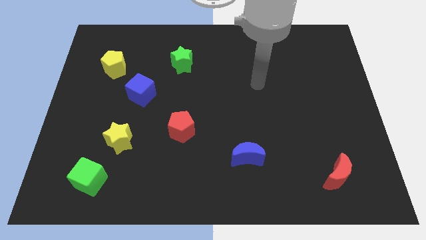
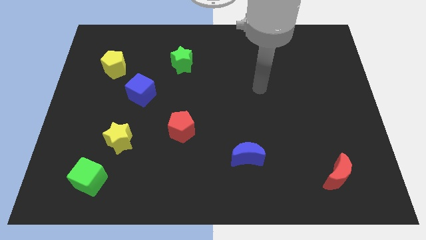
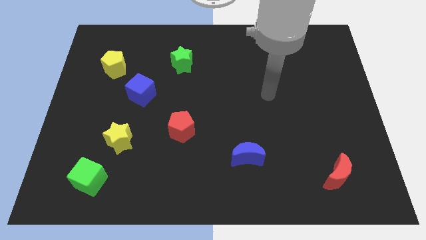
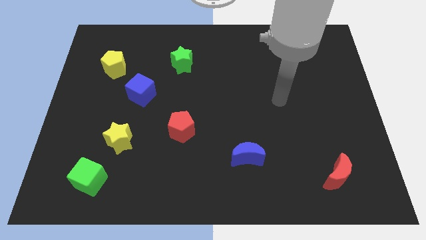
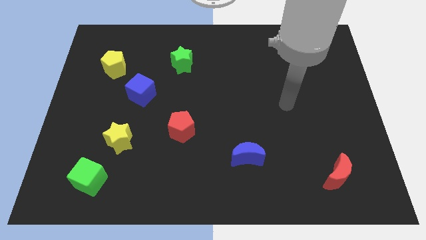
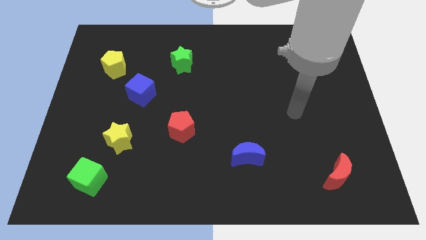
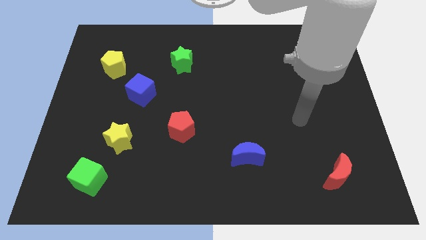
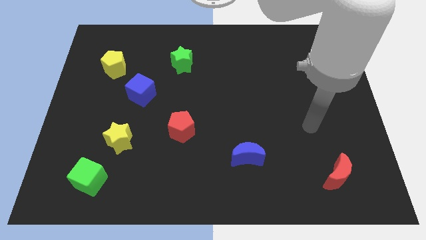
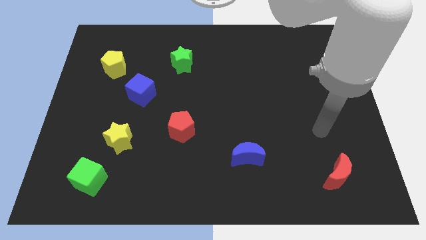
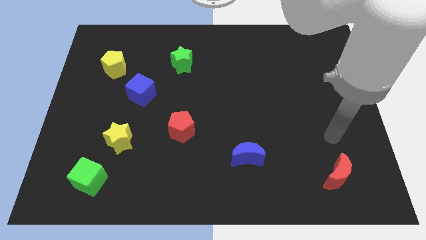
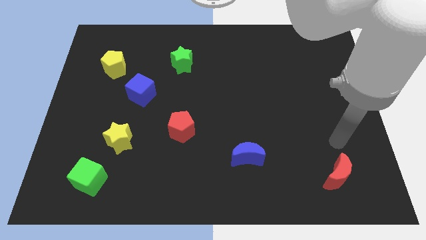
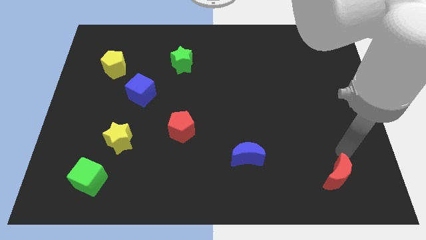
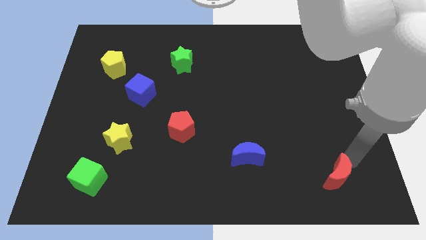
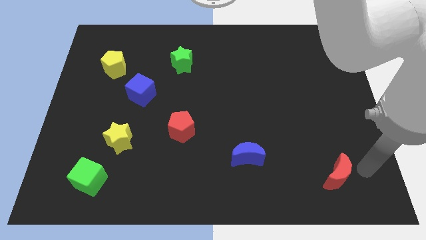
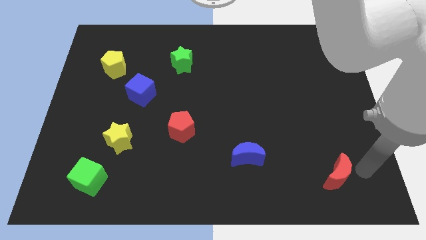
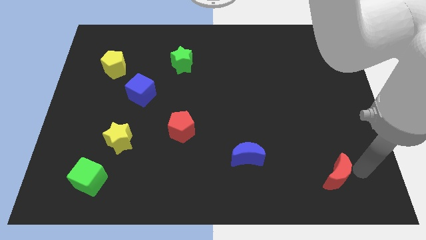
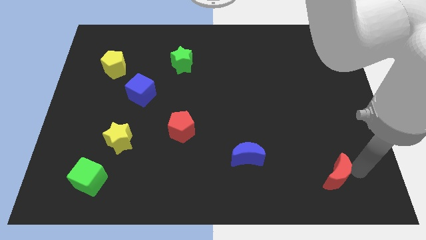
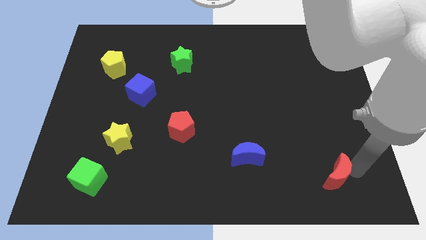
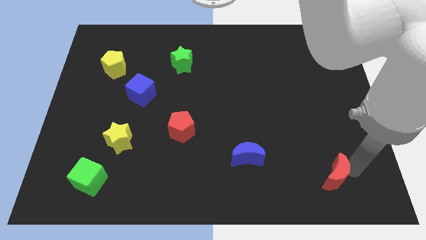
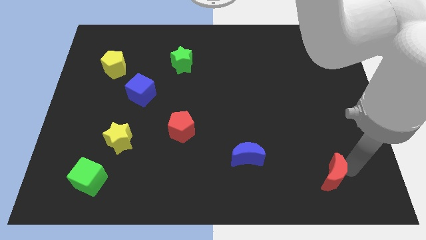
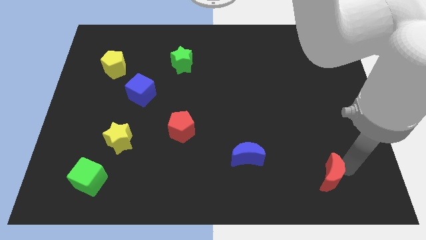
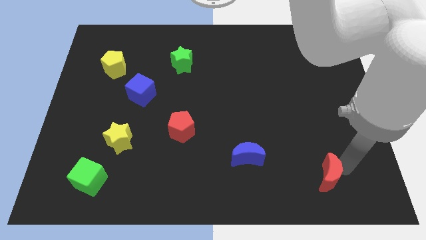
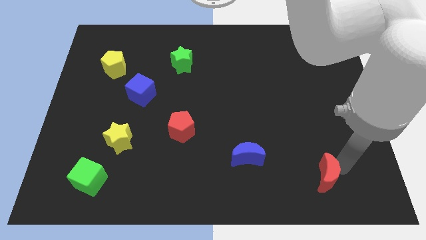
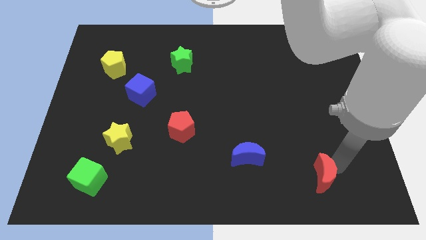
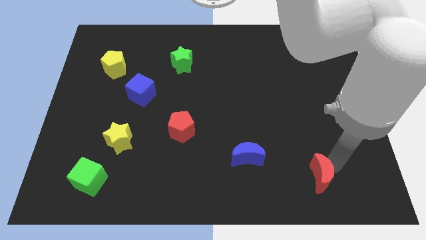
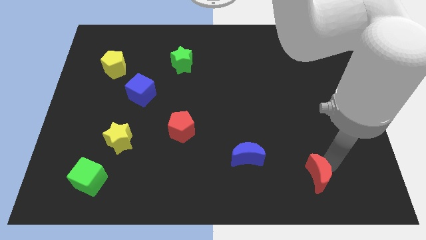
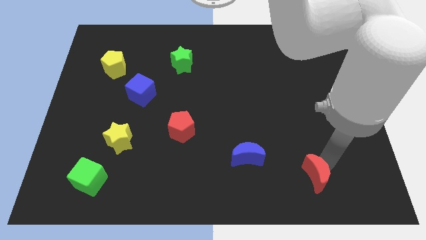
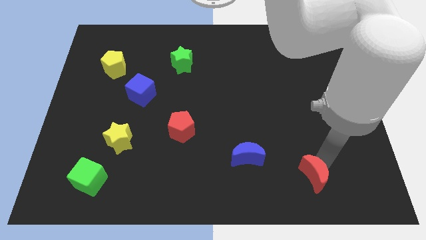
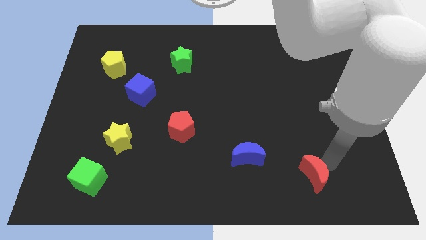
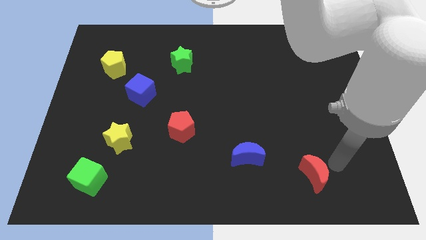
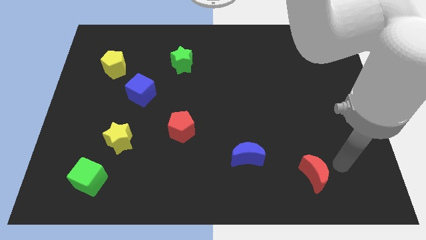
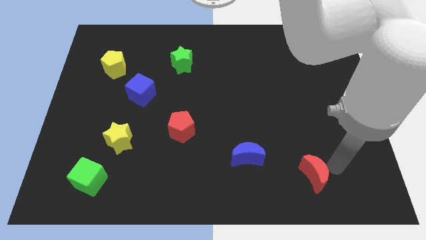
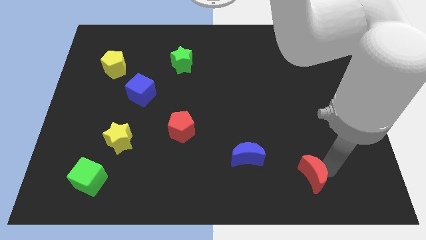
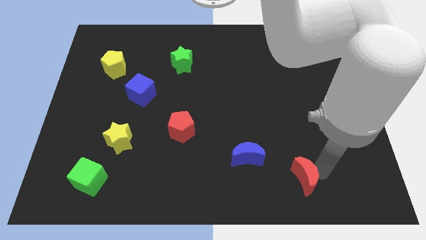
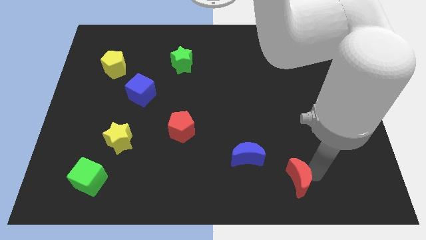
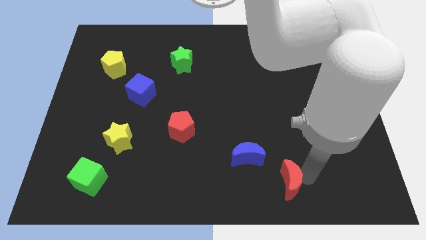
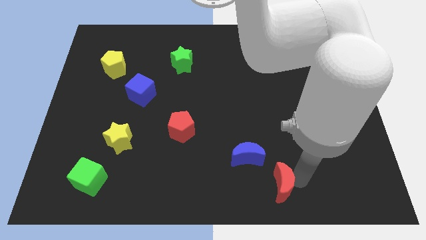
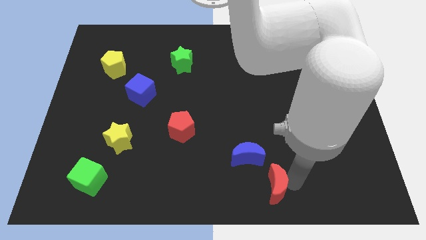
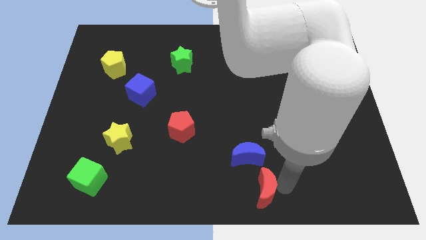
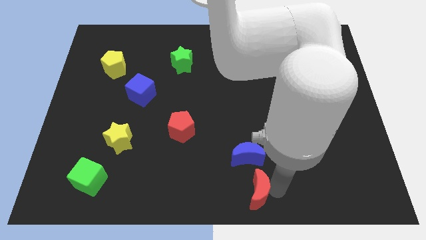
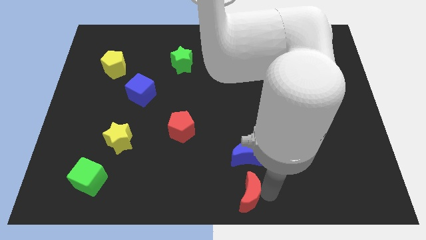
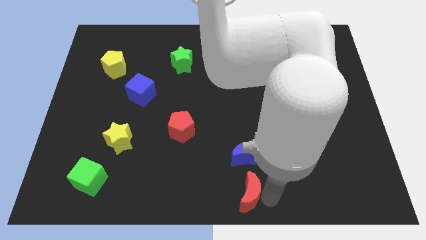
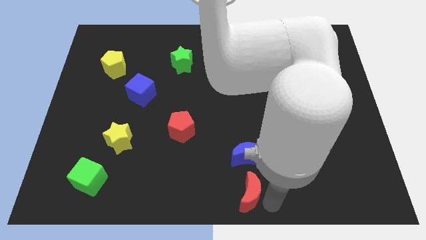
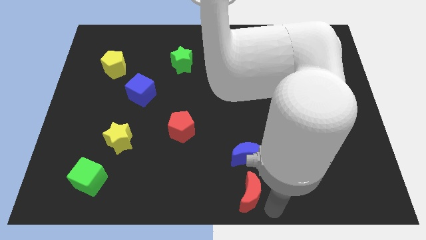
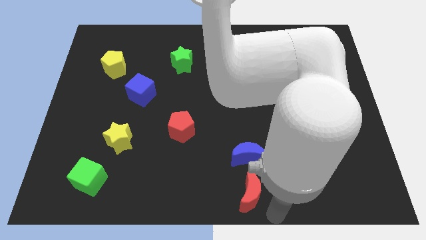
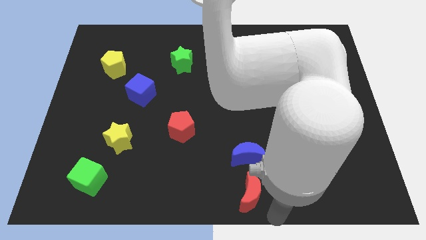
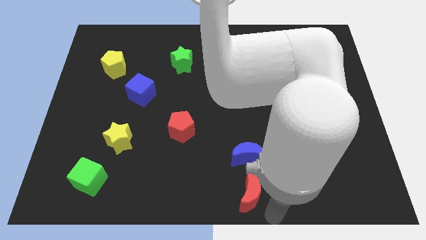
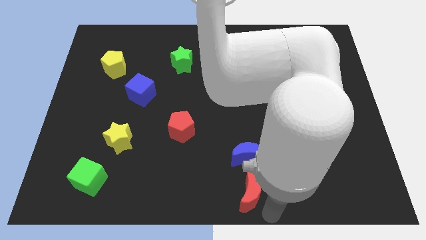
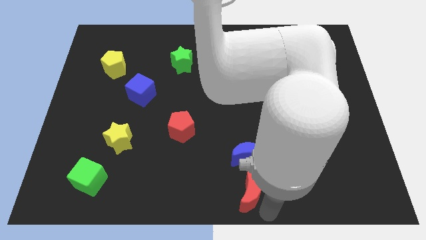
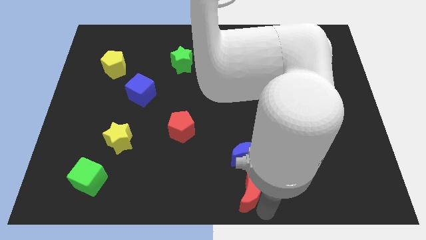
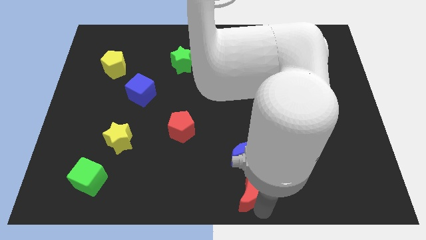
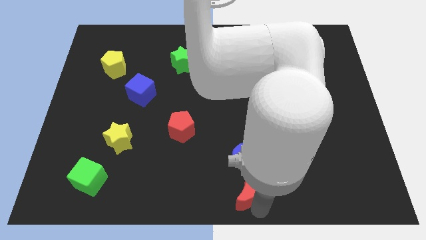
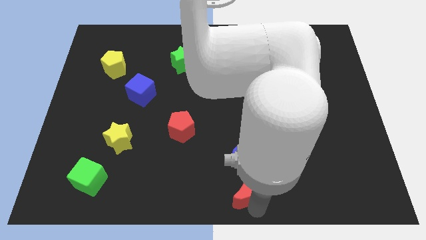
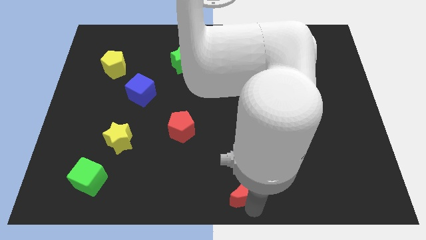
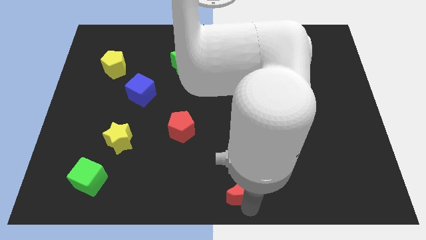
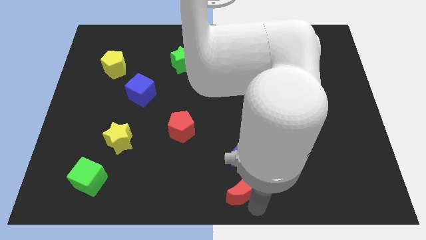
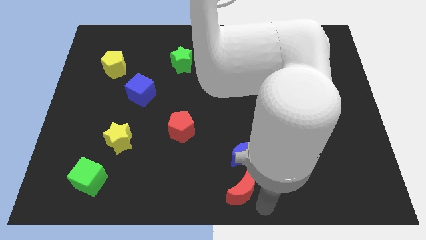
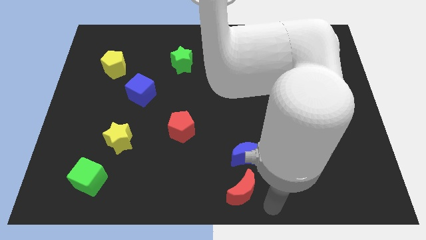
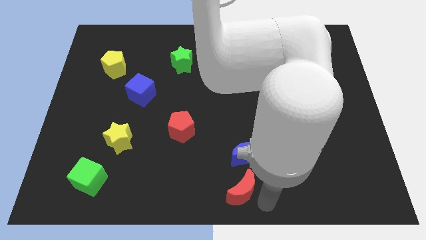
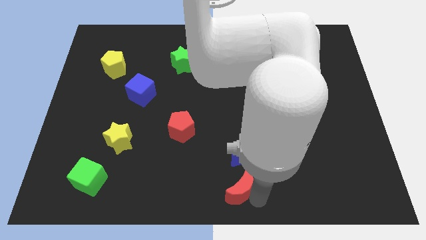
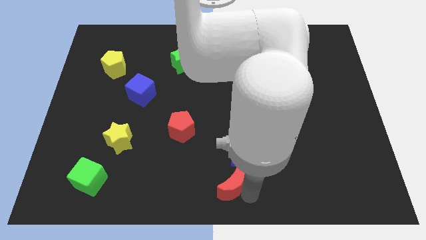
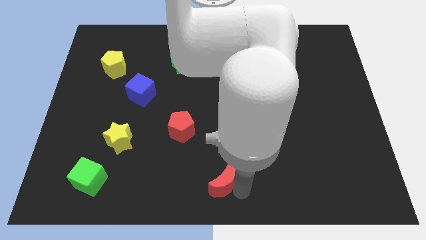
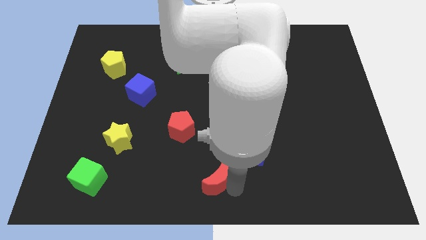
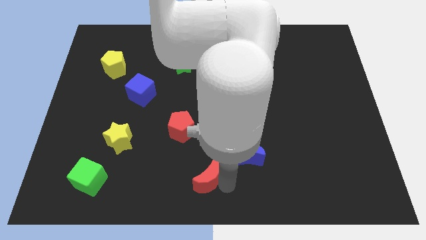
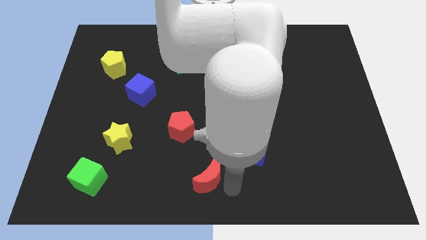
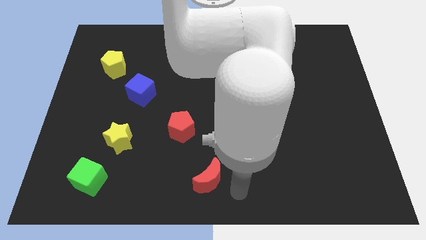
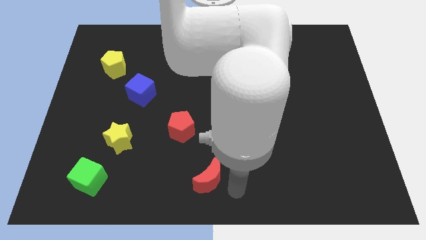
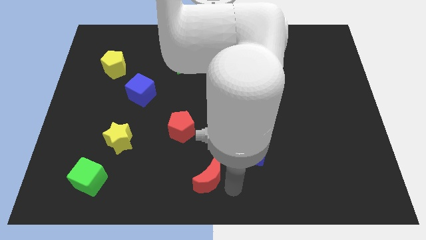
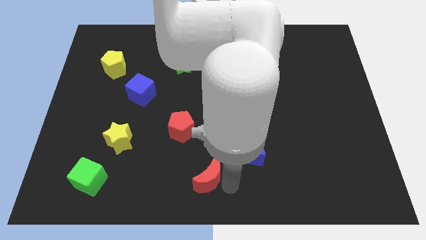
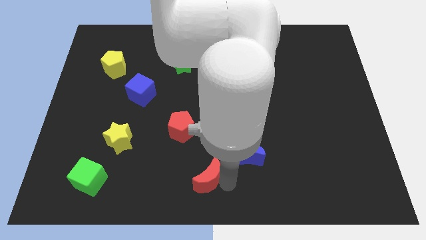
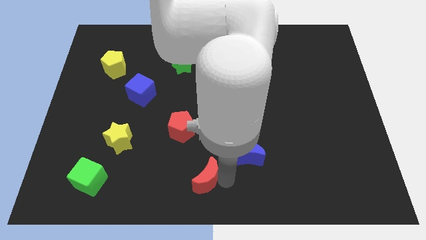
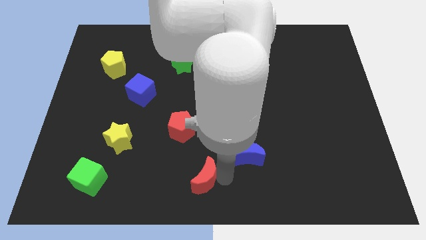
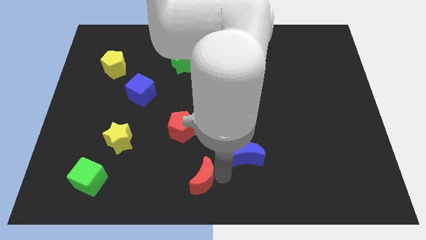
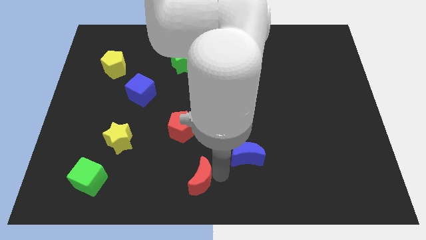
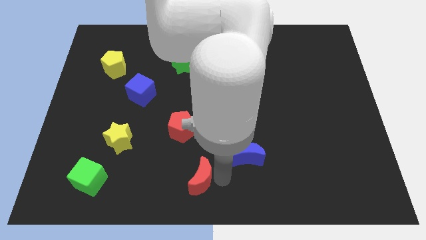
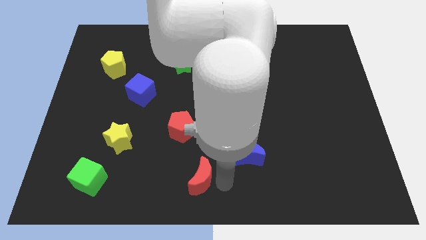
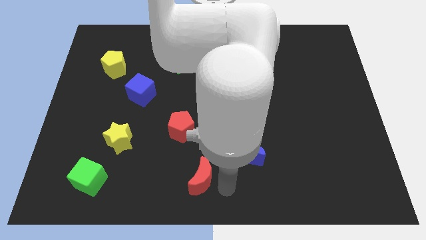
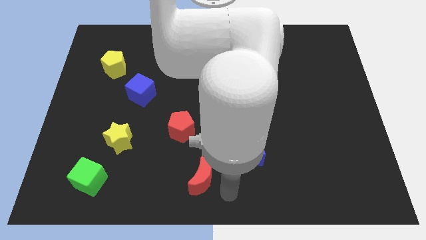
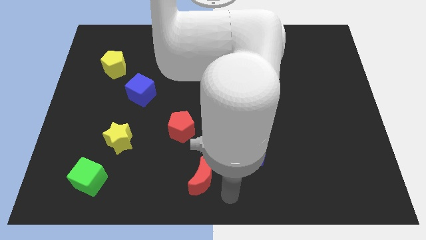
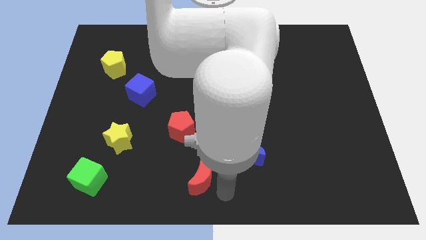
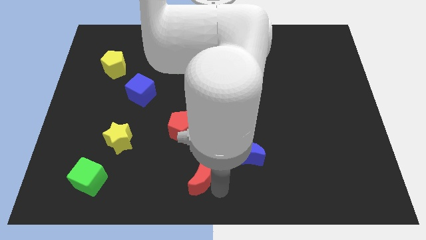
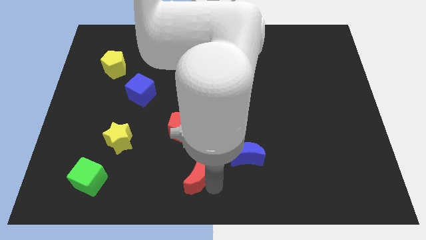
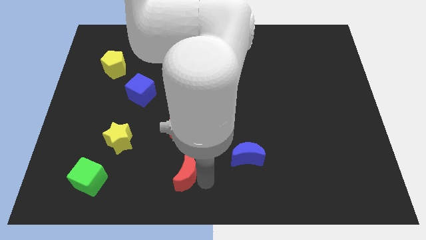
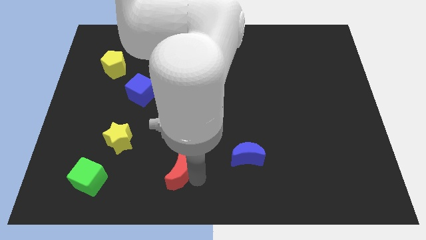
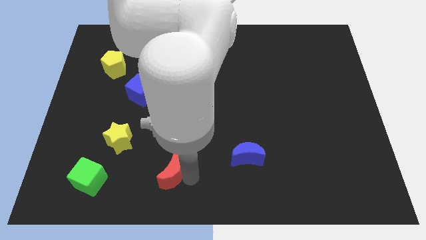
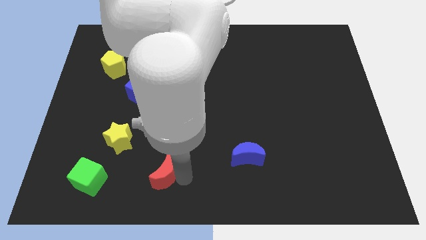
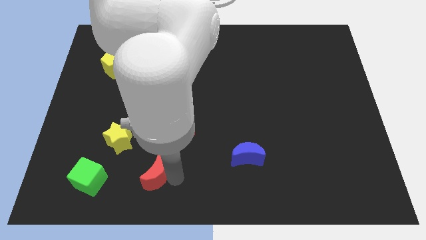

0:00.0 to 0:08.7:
put the red moon to the bottom right of the yellow star
